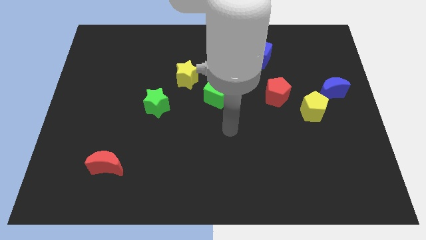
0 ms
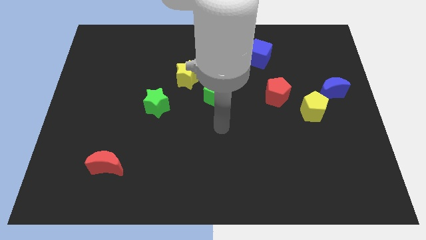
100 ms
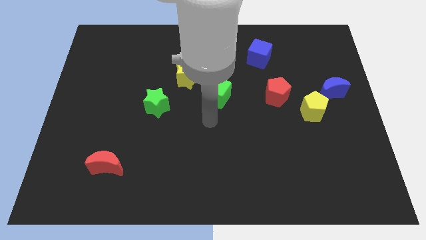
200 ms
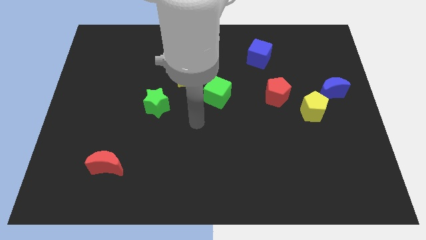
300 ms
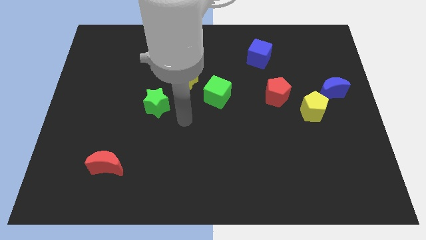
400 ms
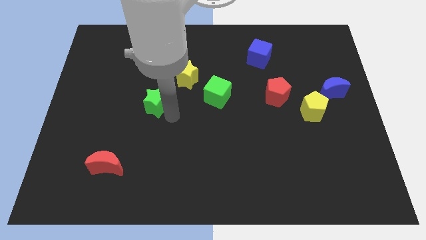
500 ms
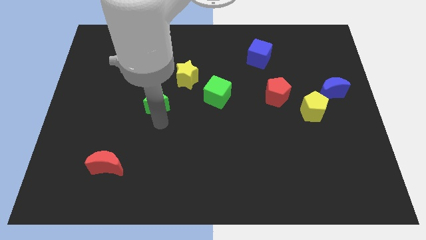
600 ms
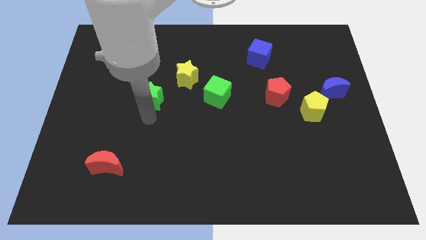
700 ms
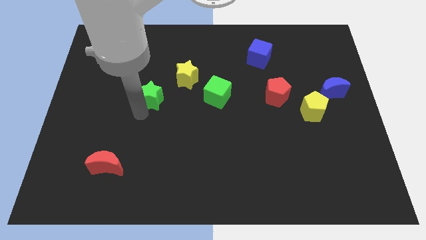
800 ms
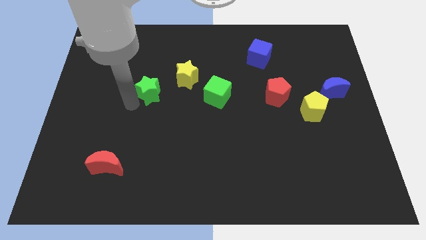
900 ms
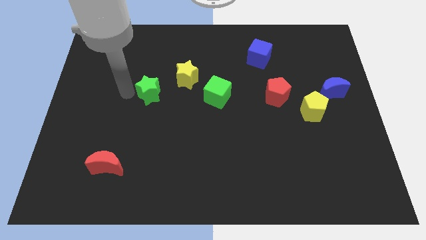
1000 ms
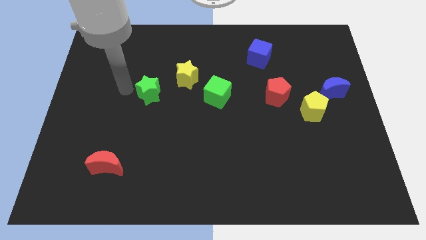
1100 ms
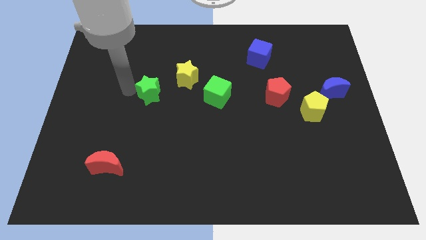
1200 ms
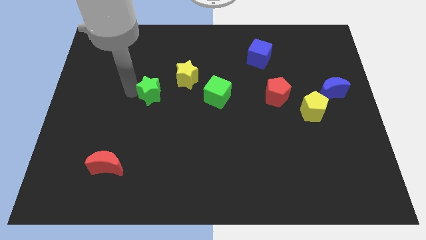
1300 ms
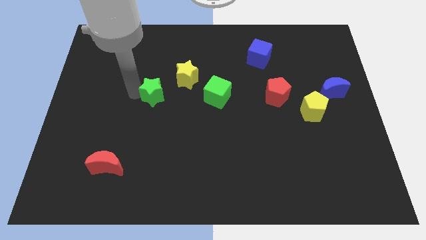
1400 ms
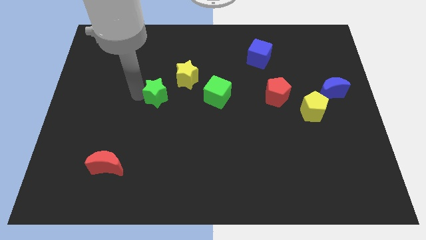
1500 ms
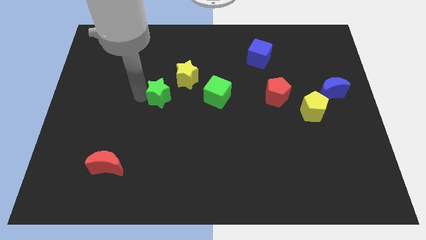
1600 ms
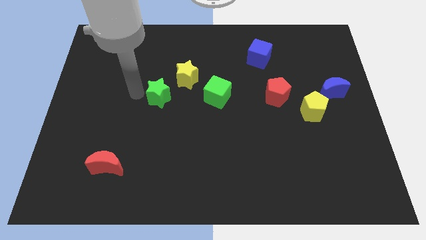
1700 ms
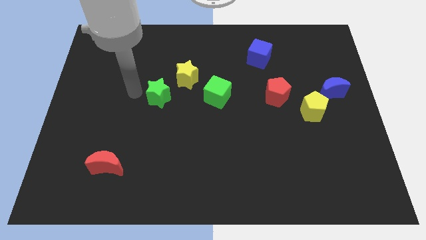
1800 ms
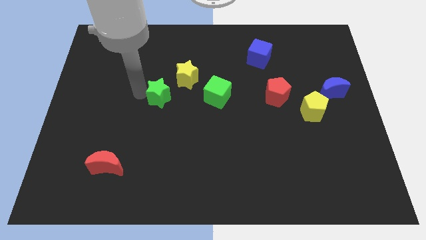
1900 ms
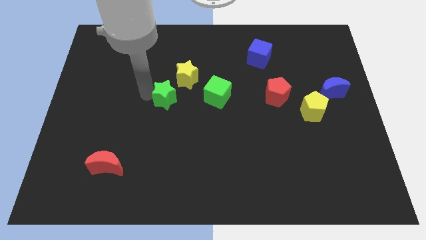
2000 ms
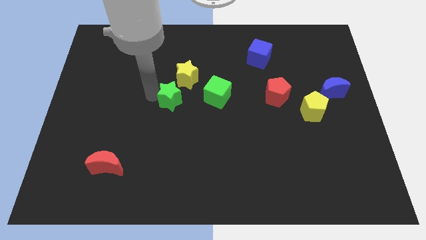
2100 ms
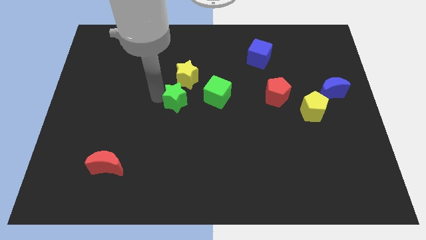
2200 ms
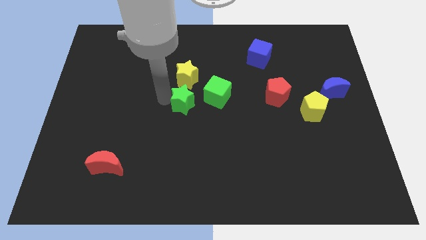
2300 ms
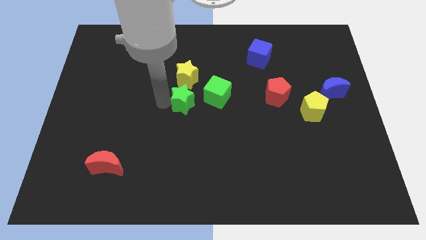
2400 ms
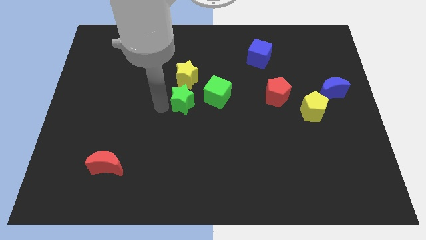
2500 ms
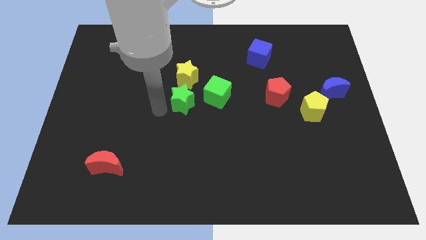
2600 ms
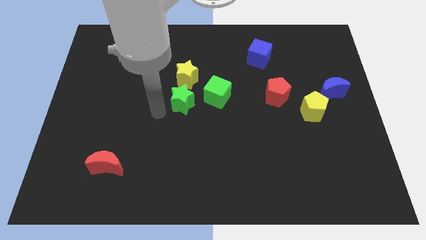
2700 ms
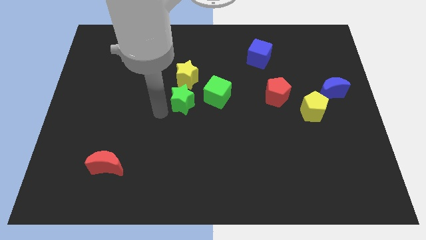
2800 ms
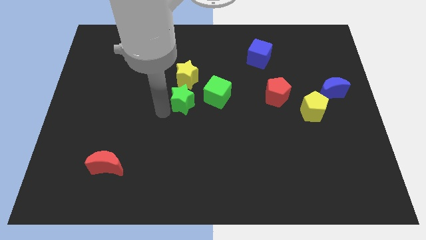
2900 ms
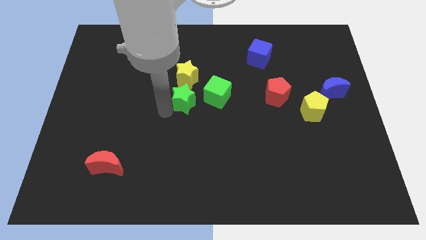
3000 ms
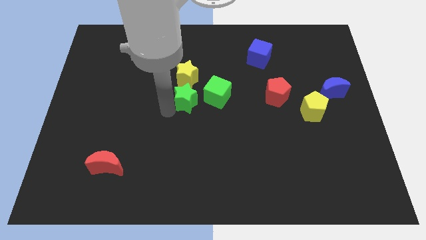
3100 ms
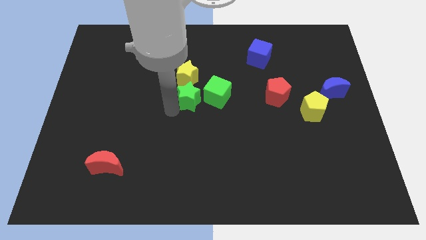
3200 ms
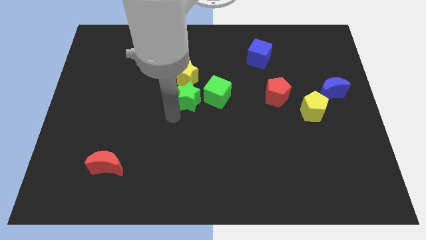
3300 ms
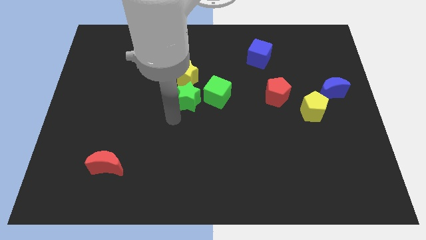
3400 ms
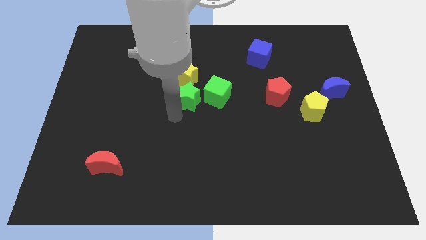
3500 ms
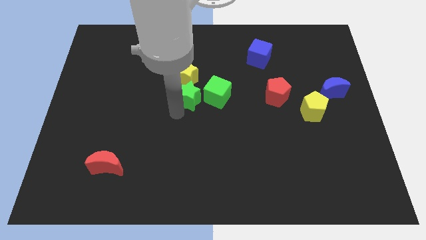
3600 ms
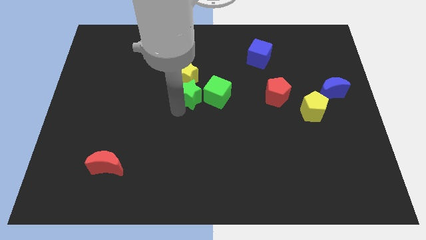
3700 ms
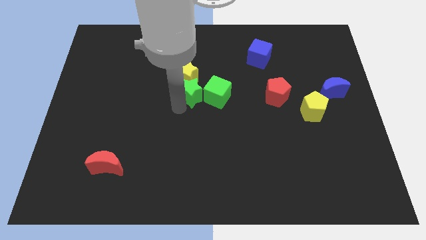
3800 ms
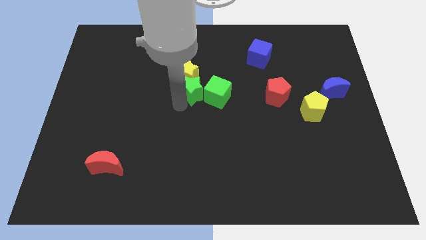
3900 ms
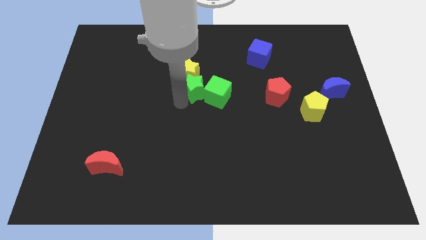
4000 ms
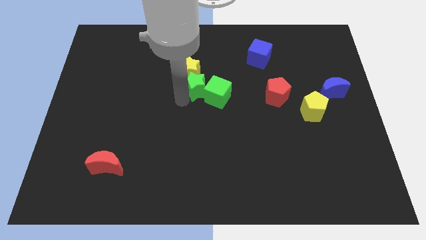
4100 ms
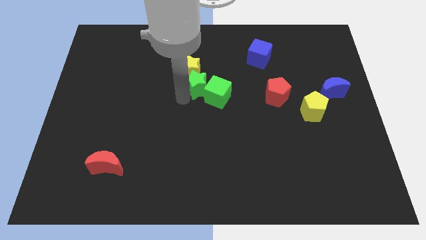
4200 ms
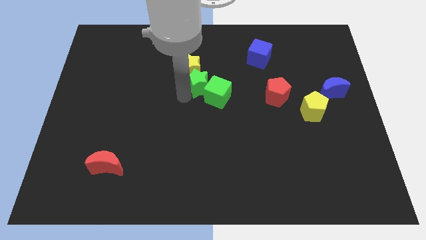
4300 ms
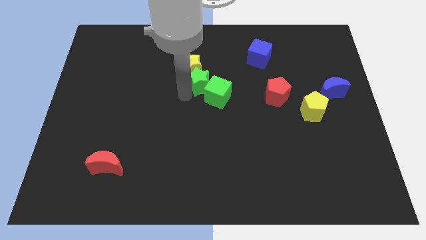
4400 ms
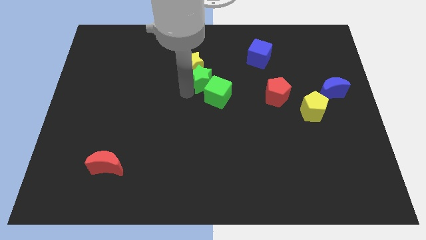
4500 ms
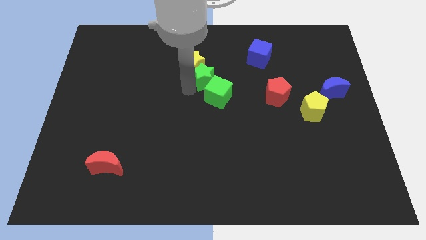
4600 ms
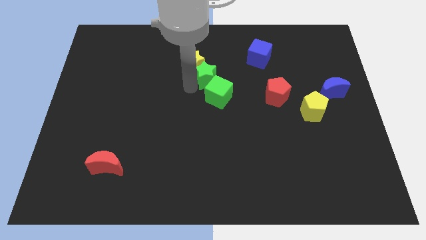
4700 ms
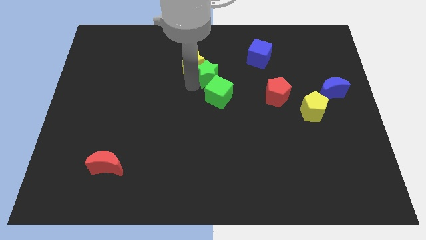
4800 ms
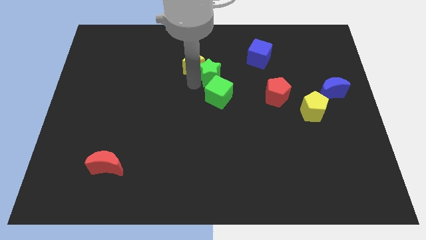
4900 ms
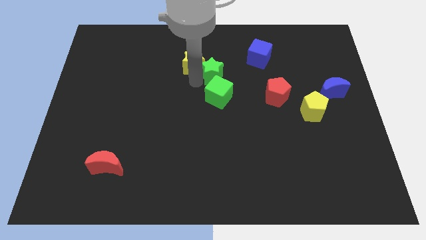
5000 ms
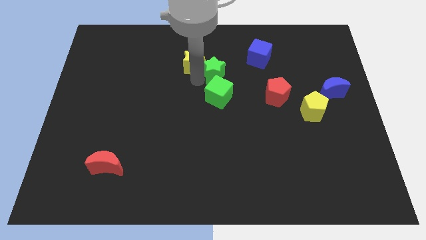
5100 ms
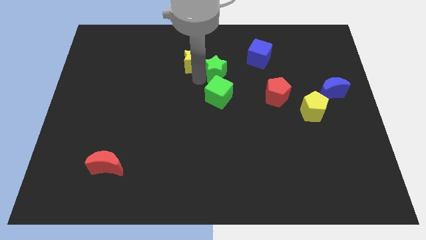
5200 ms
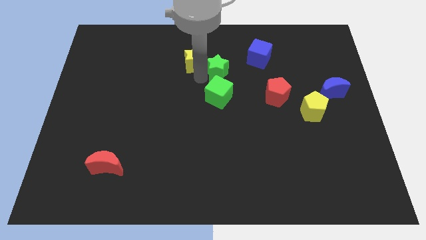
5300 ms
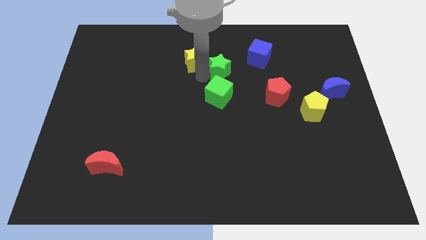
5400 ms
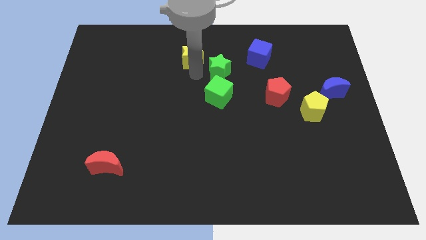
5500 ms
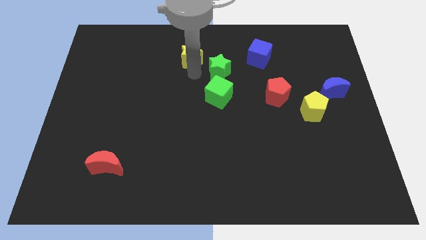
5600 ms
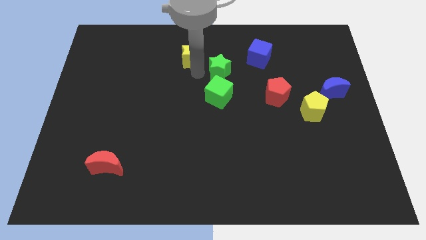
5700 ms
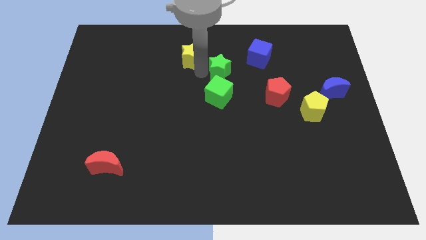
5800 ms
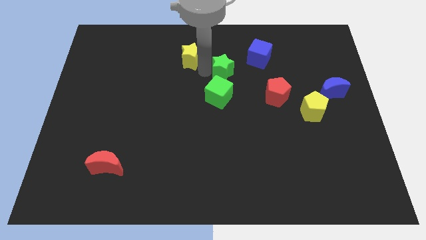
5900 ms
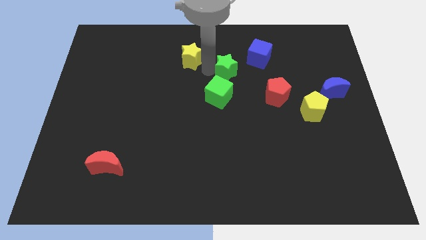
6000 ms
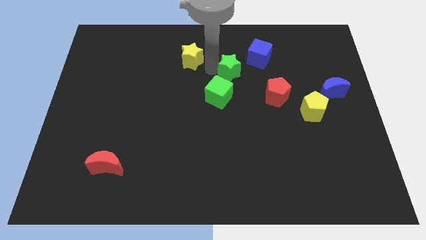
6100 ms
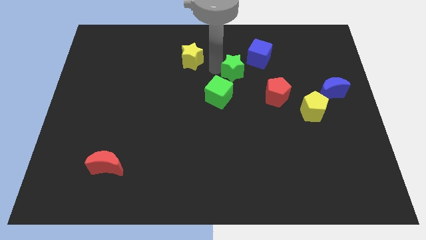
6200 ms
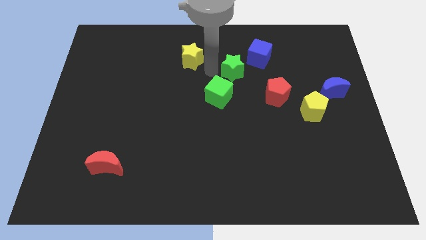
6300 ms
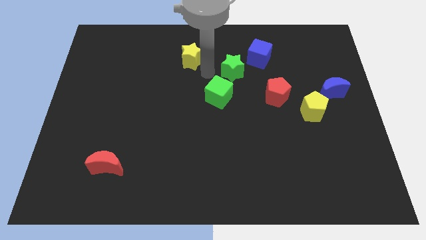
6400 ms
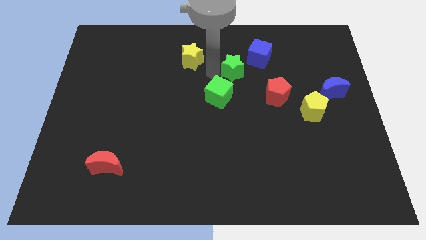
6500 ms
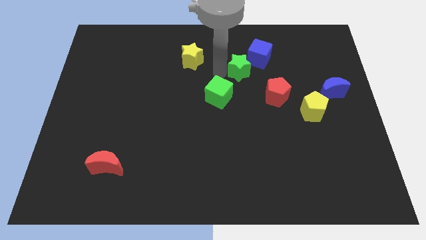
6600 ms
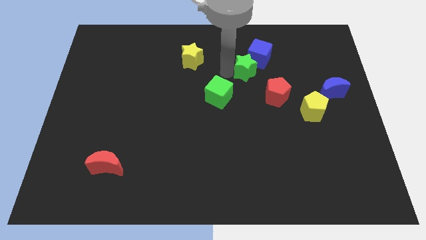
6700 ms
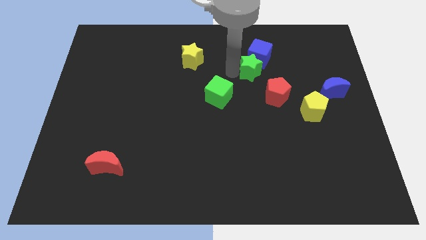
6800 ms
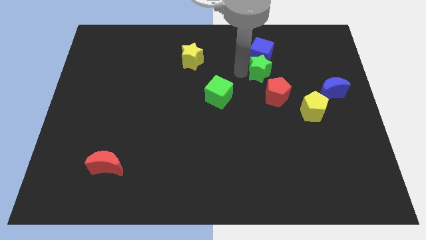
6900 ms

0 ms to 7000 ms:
move the green star diagonally down and to the right of the blue cube
